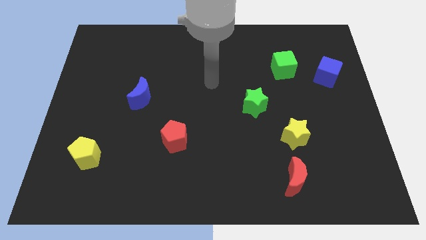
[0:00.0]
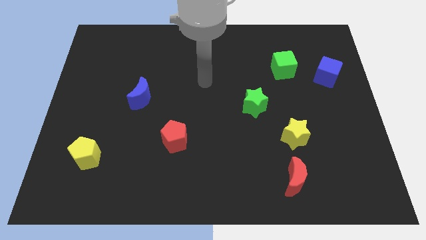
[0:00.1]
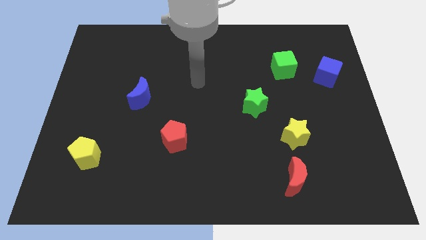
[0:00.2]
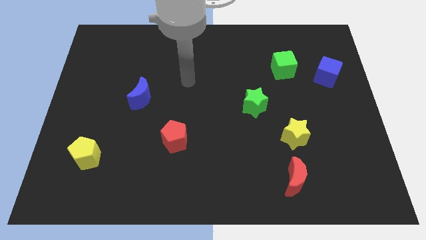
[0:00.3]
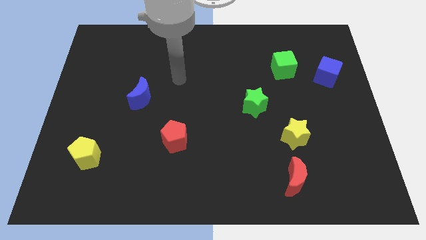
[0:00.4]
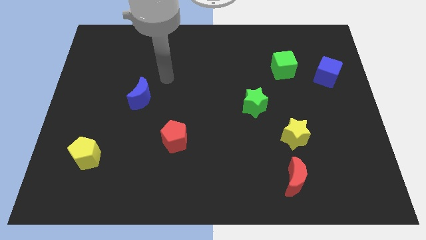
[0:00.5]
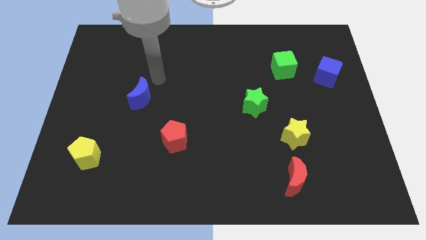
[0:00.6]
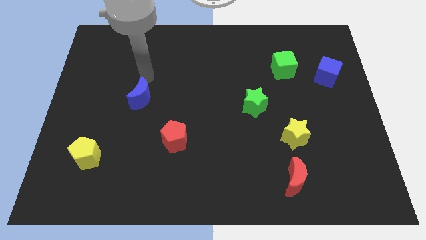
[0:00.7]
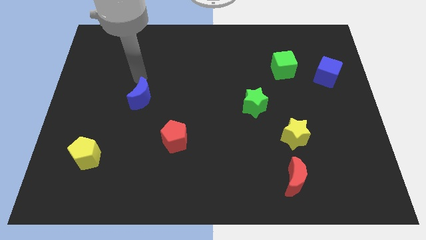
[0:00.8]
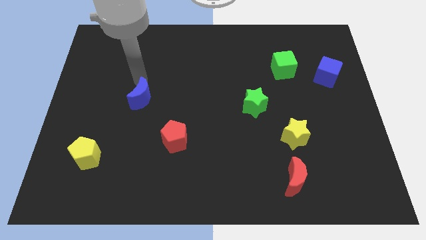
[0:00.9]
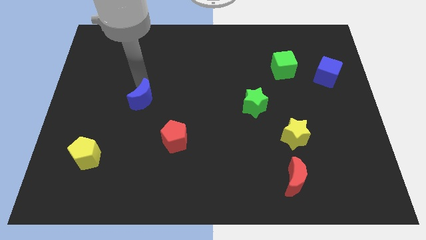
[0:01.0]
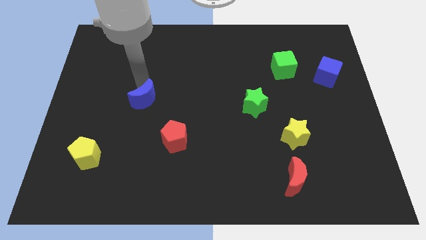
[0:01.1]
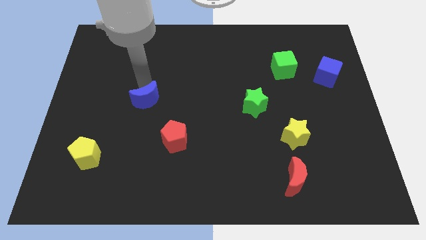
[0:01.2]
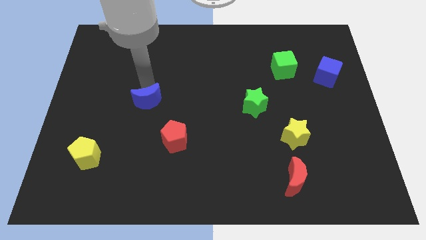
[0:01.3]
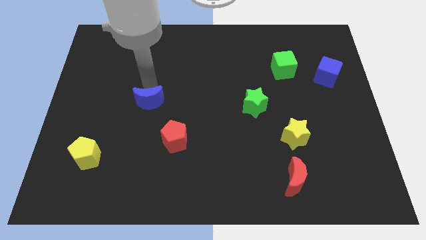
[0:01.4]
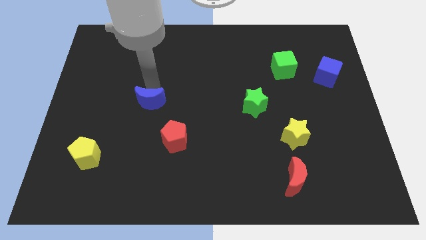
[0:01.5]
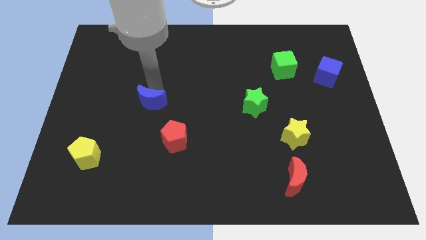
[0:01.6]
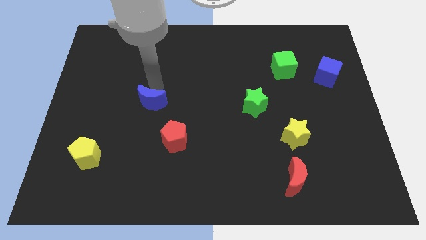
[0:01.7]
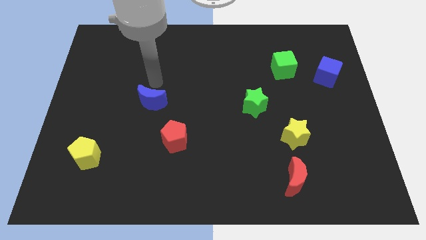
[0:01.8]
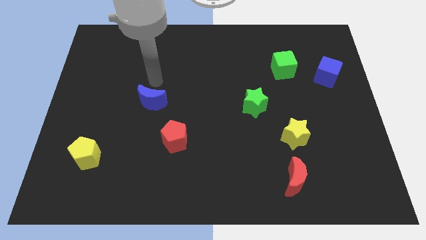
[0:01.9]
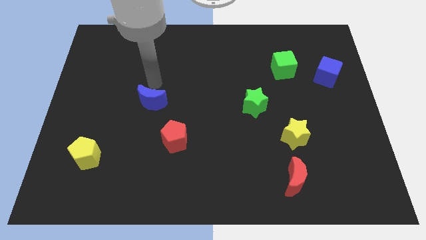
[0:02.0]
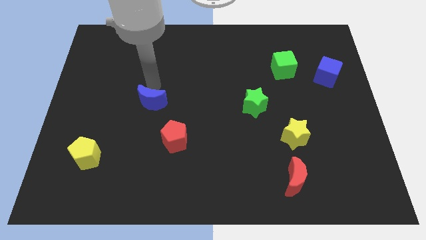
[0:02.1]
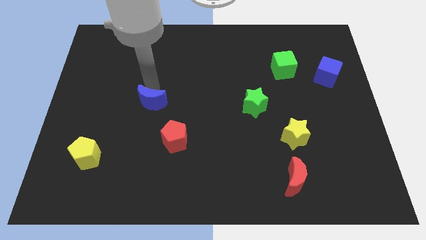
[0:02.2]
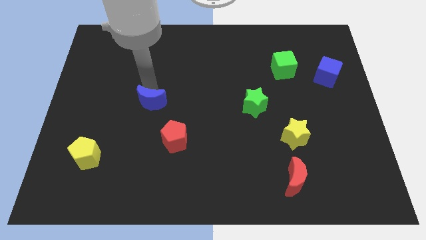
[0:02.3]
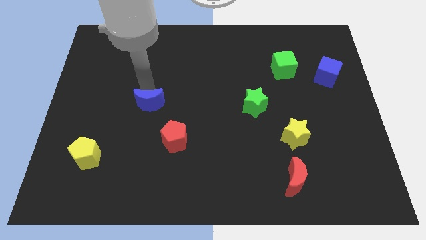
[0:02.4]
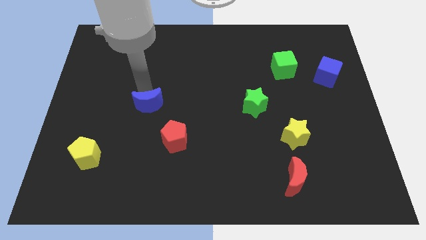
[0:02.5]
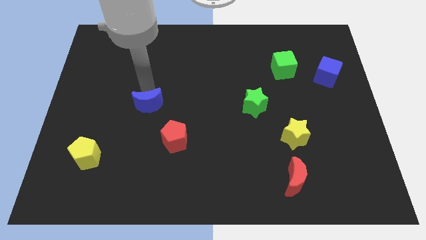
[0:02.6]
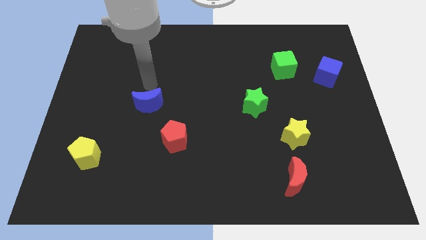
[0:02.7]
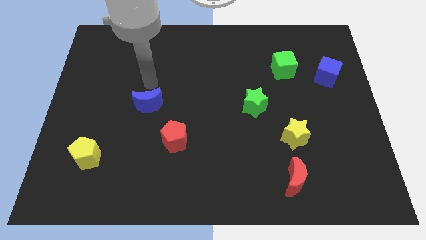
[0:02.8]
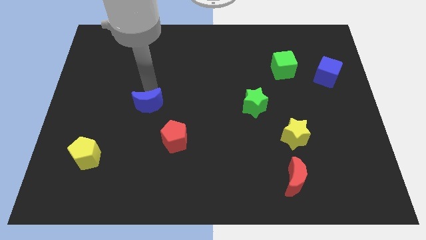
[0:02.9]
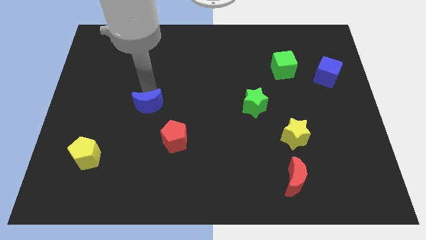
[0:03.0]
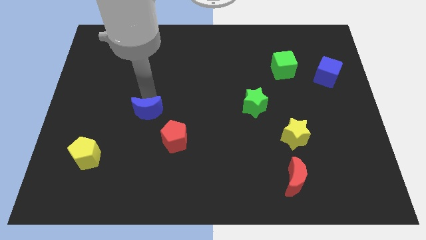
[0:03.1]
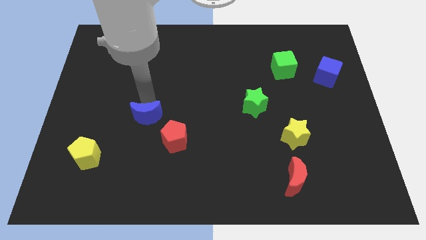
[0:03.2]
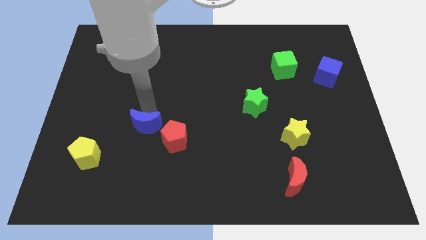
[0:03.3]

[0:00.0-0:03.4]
push the blue moon a little downwards

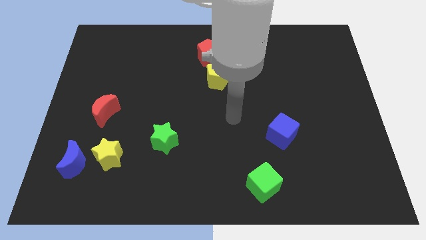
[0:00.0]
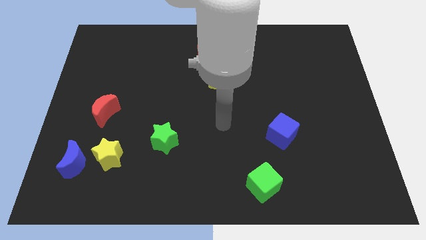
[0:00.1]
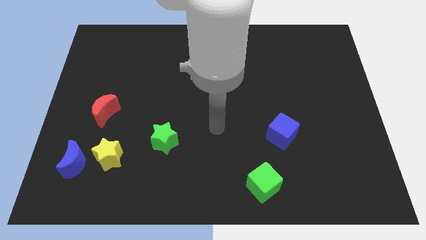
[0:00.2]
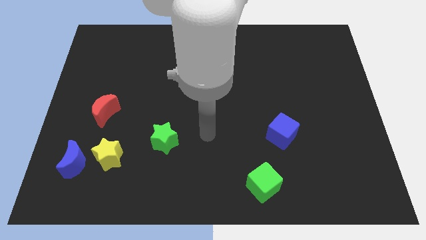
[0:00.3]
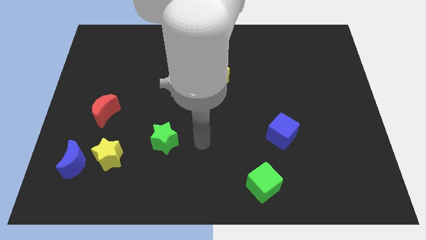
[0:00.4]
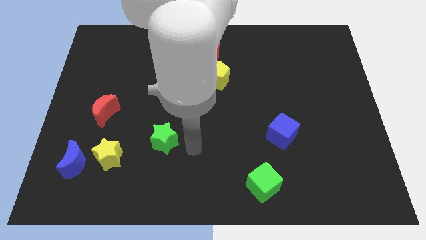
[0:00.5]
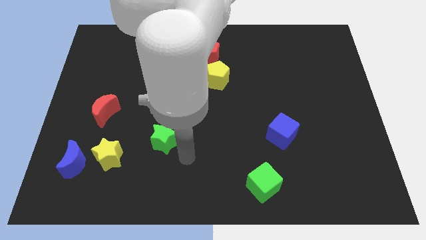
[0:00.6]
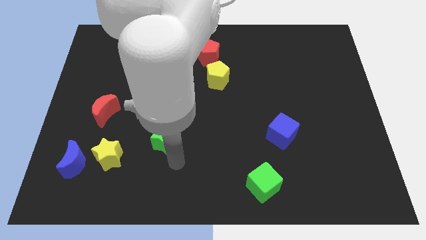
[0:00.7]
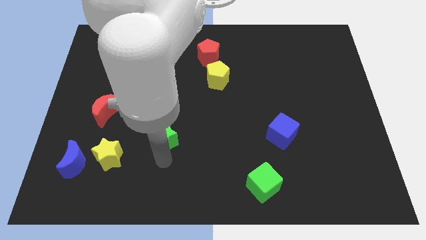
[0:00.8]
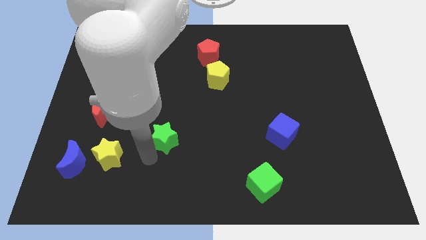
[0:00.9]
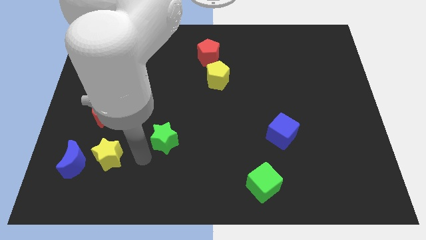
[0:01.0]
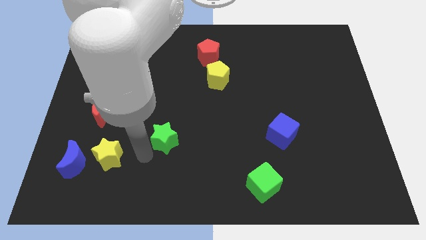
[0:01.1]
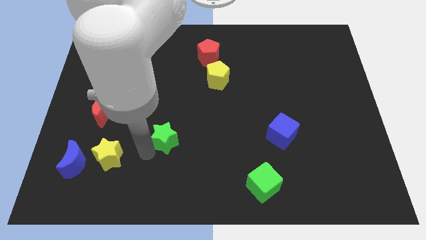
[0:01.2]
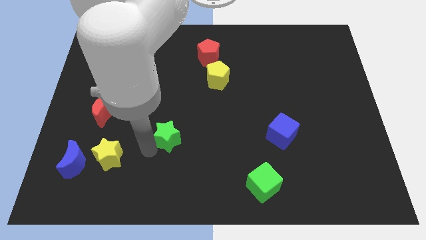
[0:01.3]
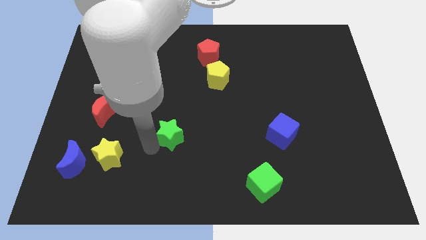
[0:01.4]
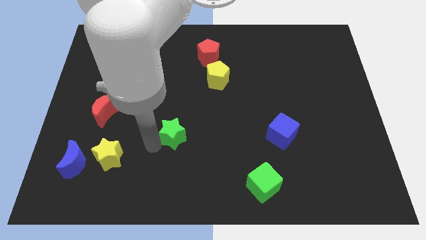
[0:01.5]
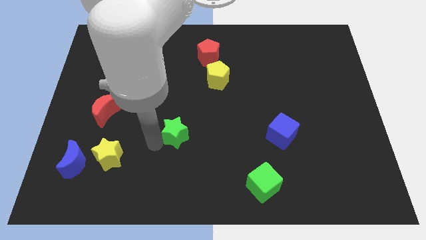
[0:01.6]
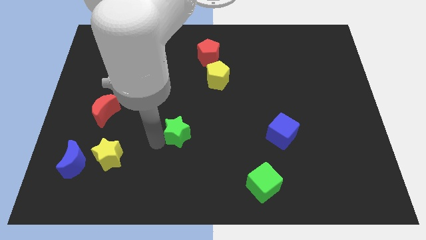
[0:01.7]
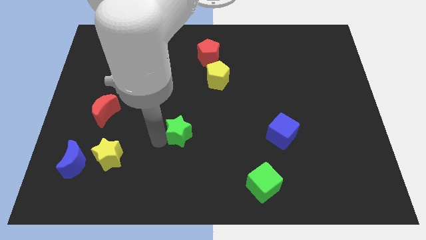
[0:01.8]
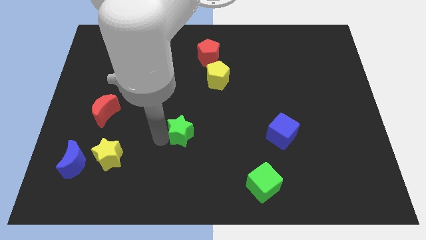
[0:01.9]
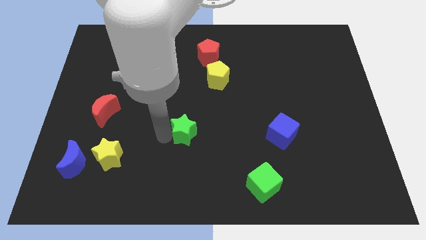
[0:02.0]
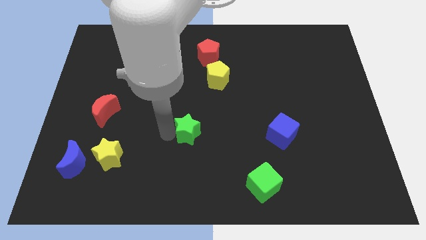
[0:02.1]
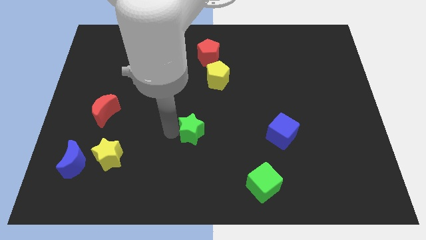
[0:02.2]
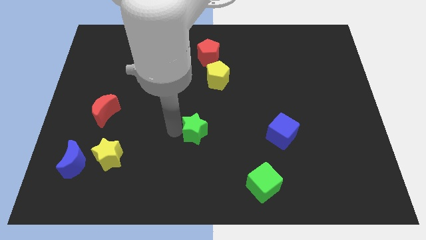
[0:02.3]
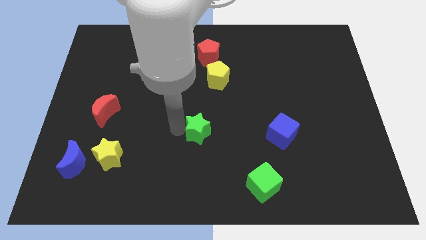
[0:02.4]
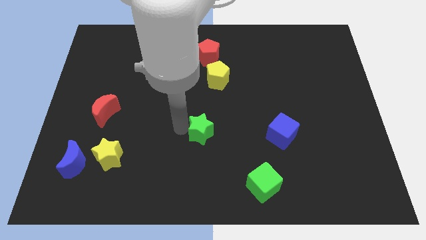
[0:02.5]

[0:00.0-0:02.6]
slightly slide the green star diagonally upwards and to the right

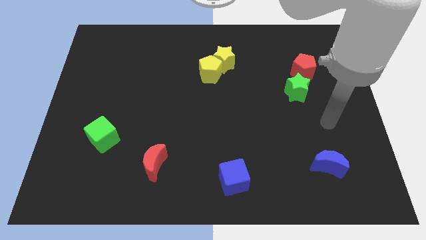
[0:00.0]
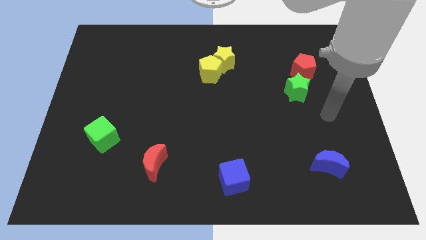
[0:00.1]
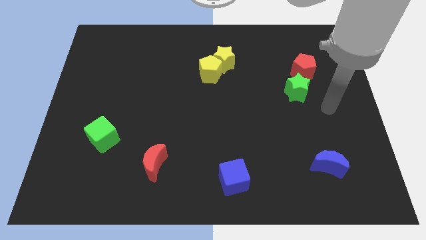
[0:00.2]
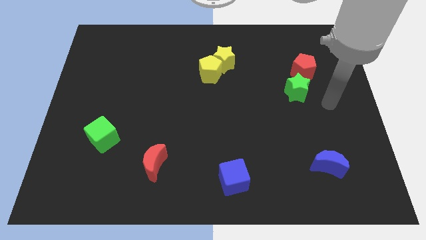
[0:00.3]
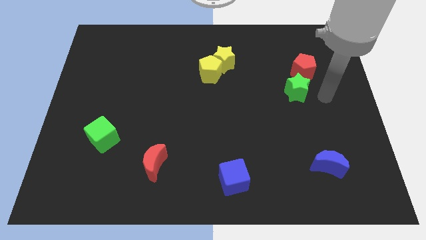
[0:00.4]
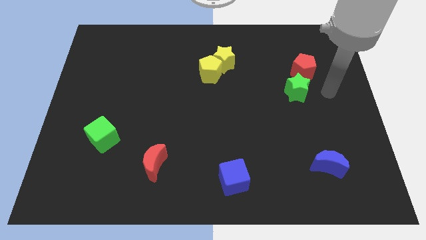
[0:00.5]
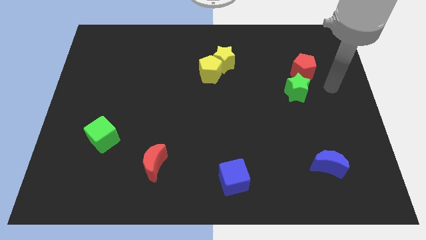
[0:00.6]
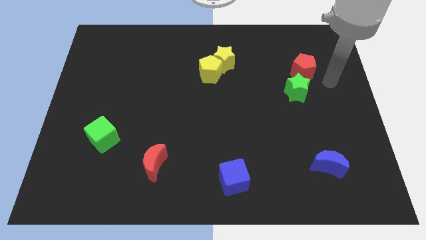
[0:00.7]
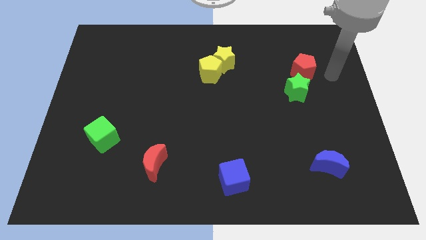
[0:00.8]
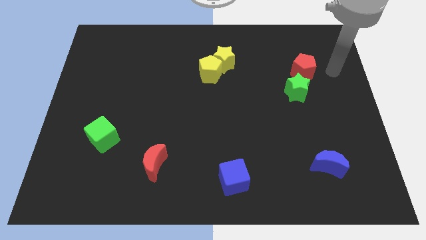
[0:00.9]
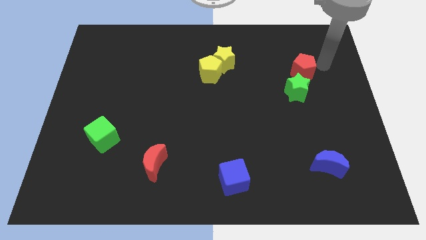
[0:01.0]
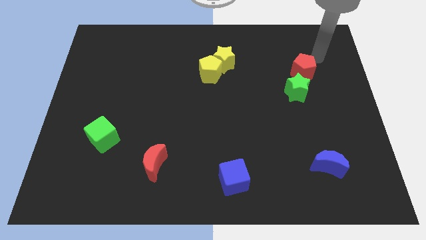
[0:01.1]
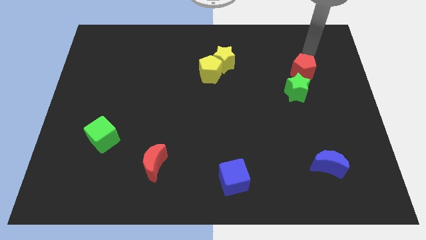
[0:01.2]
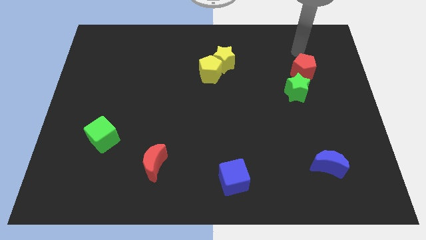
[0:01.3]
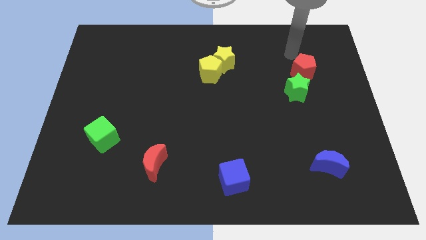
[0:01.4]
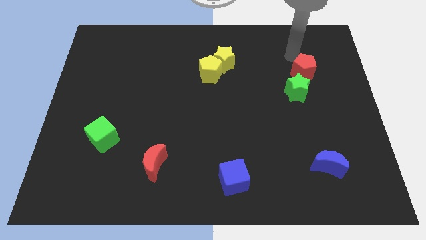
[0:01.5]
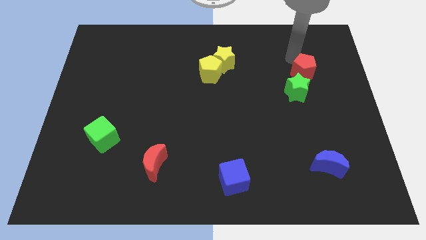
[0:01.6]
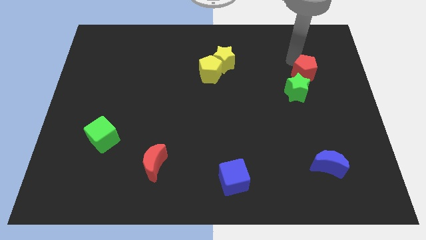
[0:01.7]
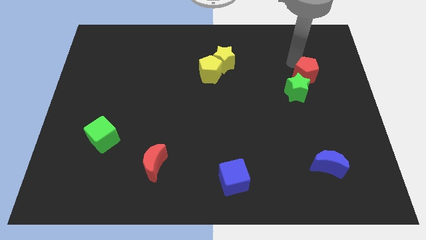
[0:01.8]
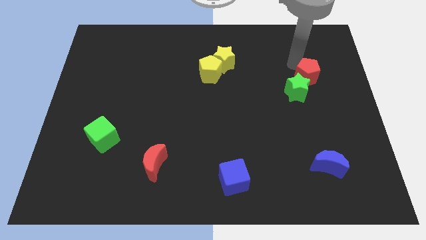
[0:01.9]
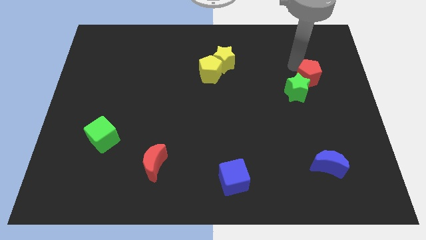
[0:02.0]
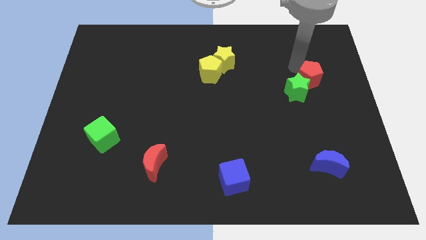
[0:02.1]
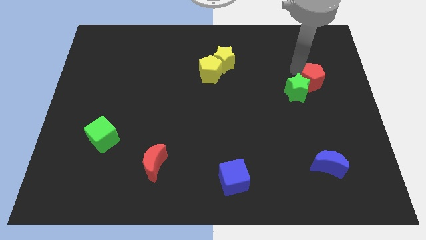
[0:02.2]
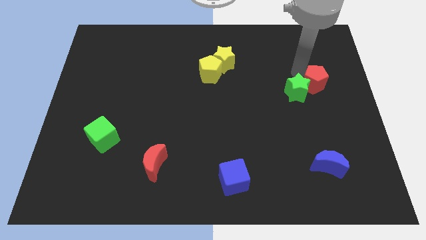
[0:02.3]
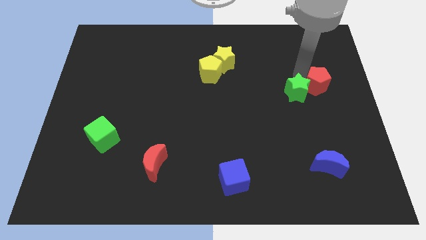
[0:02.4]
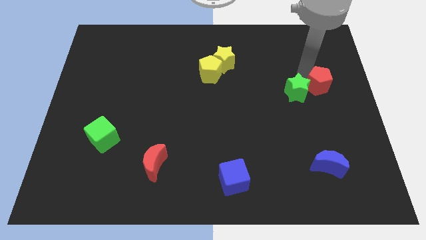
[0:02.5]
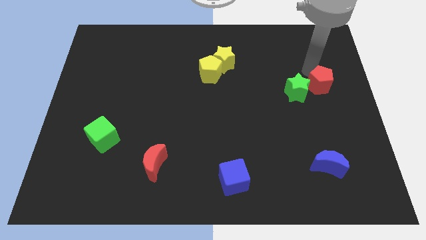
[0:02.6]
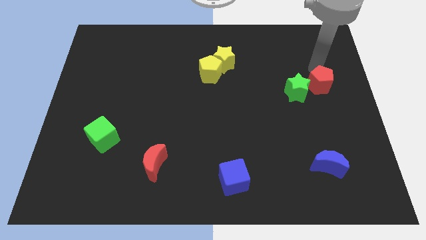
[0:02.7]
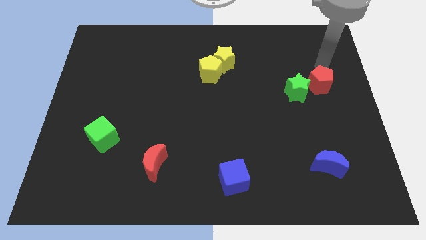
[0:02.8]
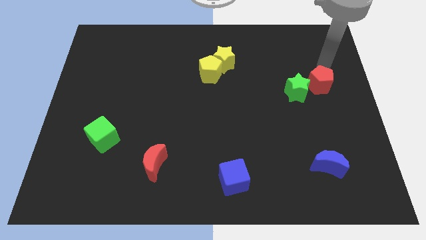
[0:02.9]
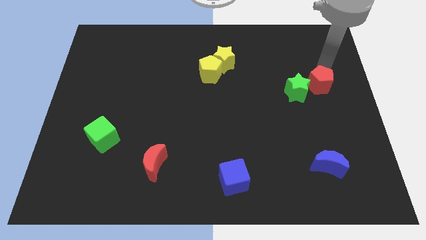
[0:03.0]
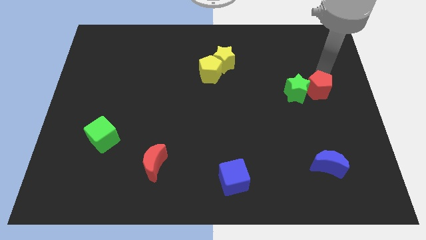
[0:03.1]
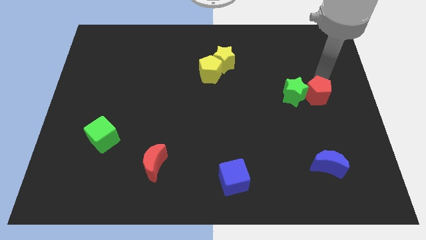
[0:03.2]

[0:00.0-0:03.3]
slide the red pentagon downwards somewhat
